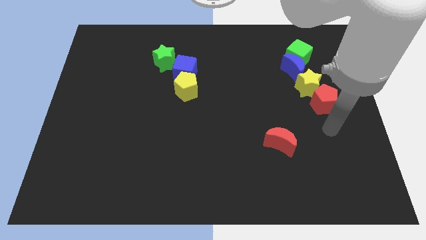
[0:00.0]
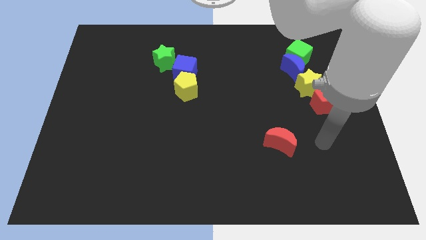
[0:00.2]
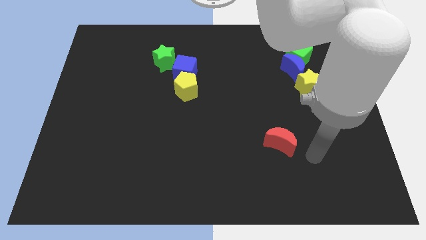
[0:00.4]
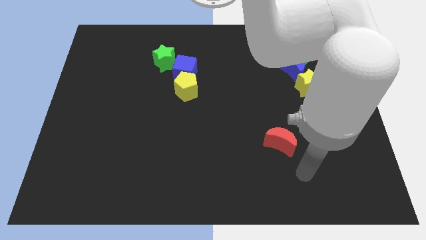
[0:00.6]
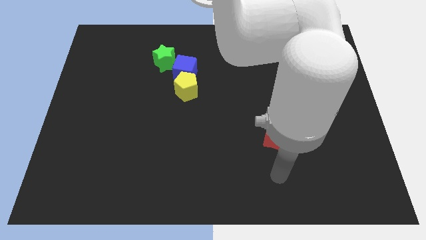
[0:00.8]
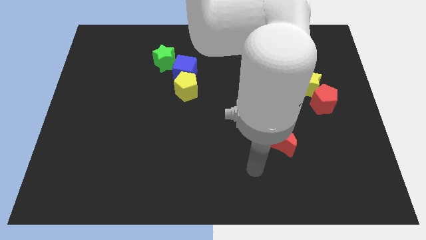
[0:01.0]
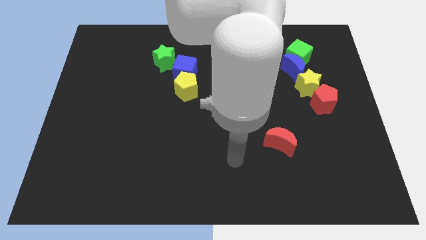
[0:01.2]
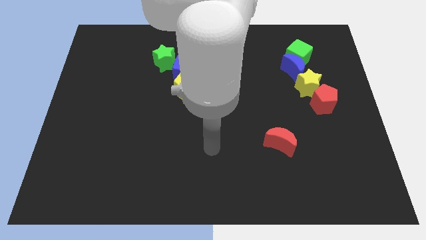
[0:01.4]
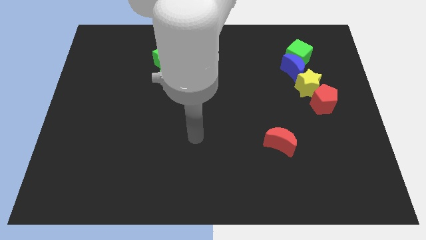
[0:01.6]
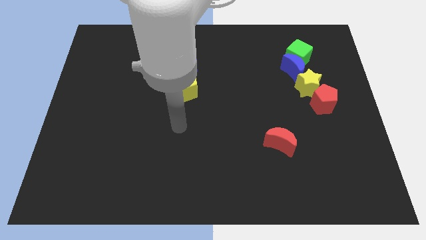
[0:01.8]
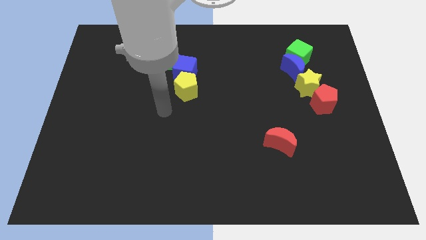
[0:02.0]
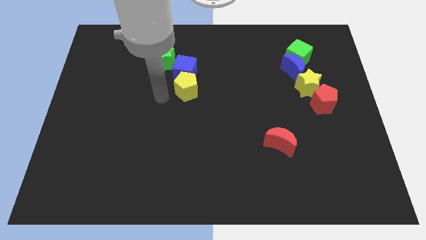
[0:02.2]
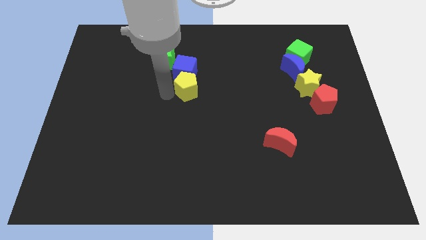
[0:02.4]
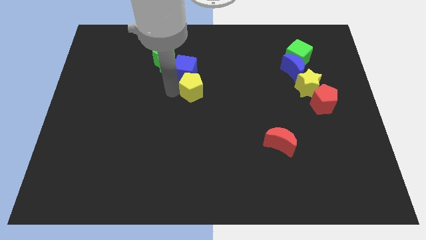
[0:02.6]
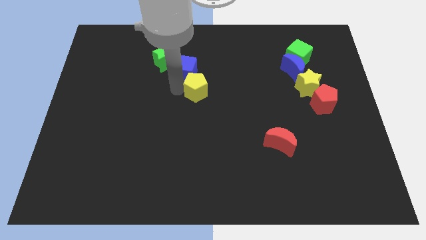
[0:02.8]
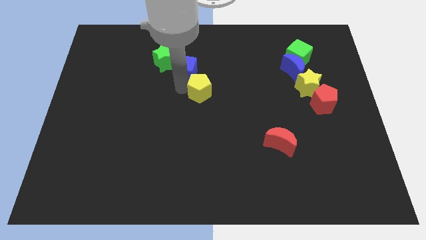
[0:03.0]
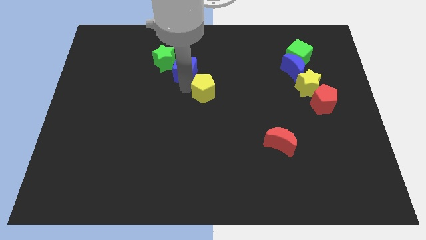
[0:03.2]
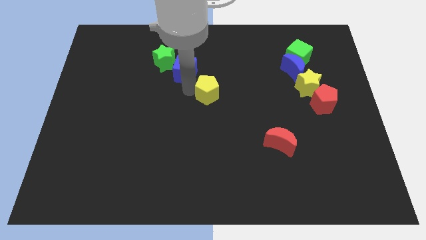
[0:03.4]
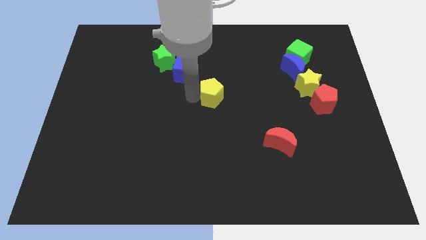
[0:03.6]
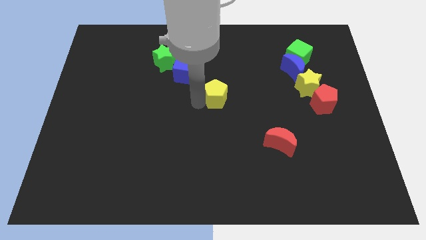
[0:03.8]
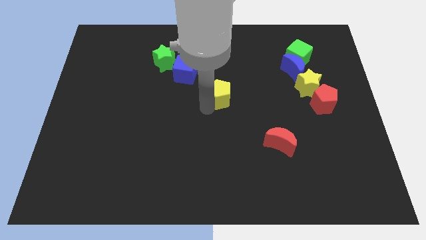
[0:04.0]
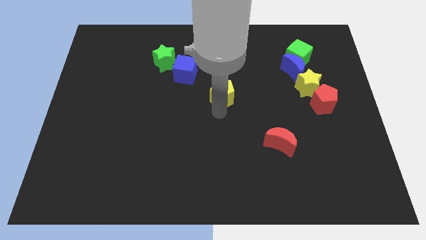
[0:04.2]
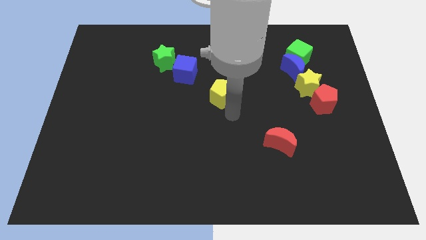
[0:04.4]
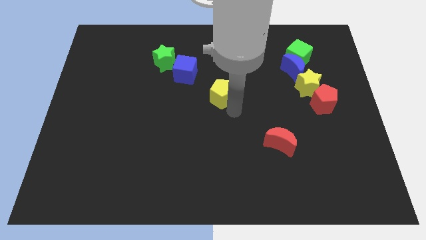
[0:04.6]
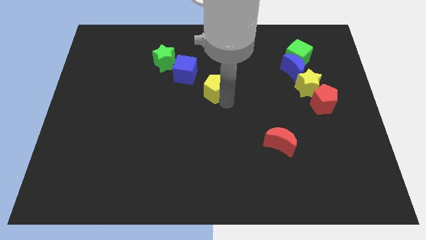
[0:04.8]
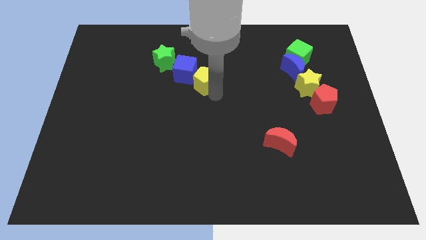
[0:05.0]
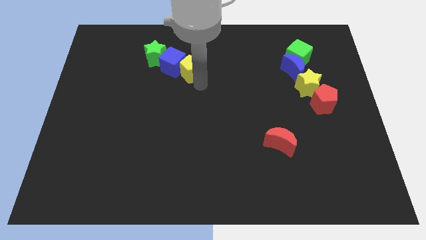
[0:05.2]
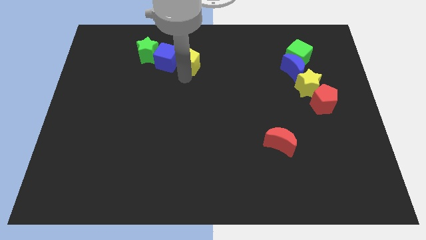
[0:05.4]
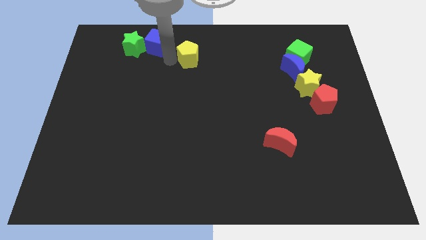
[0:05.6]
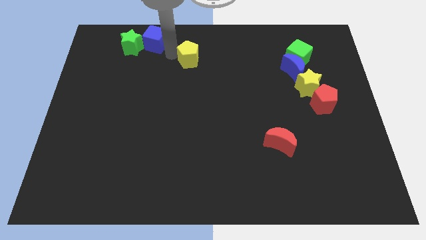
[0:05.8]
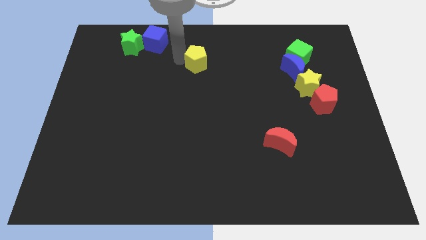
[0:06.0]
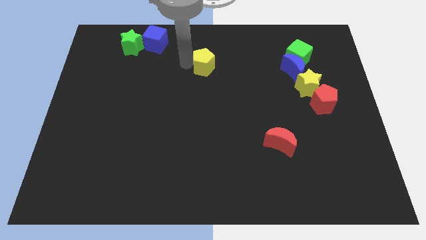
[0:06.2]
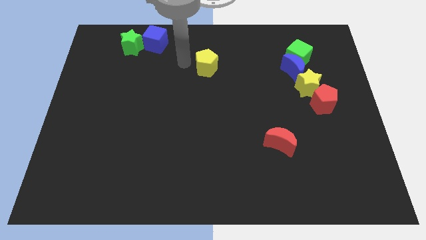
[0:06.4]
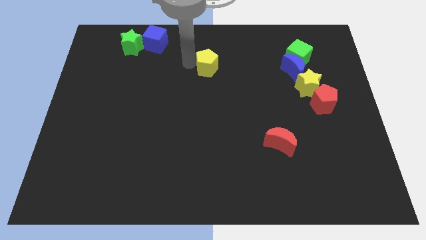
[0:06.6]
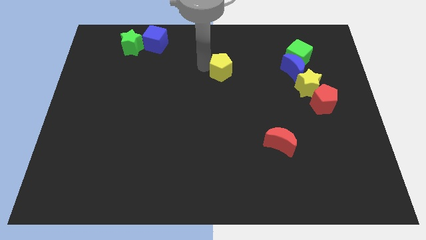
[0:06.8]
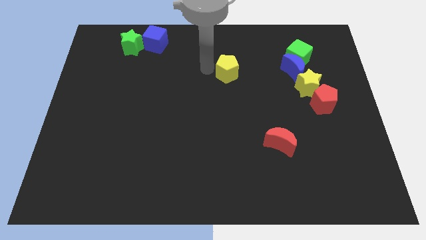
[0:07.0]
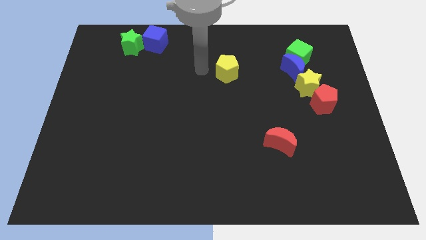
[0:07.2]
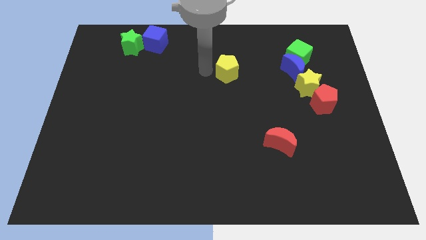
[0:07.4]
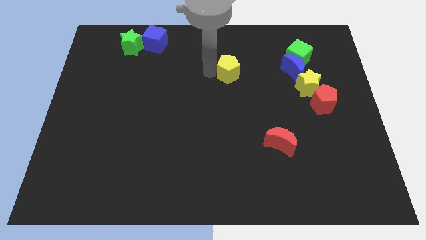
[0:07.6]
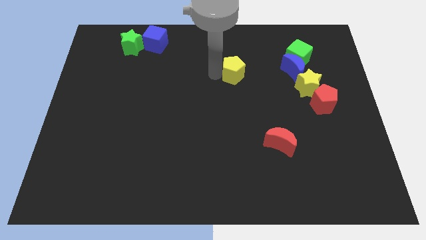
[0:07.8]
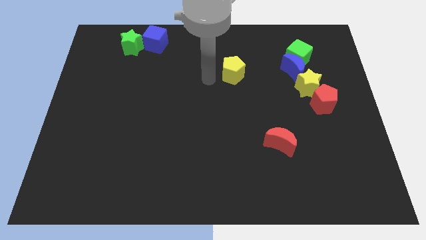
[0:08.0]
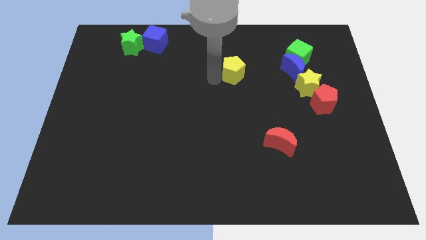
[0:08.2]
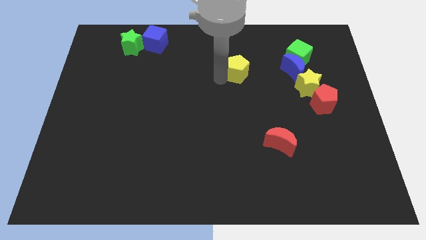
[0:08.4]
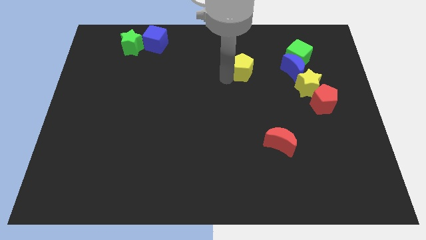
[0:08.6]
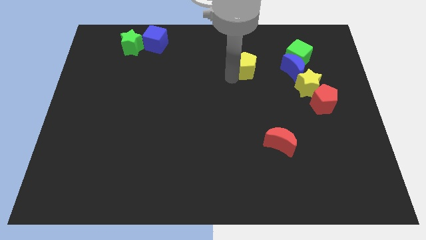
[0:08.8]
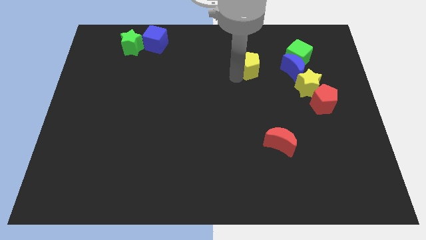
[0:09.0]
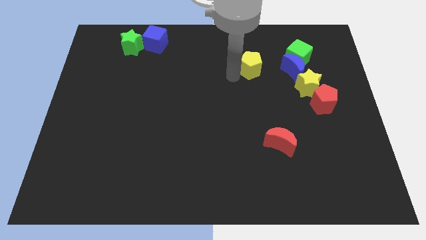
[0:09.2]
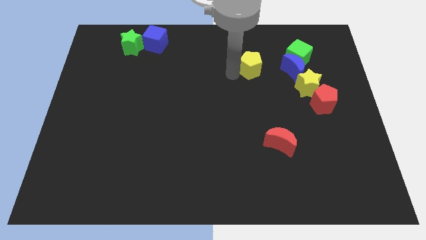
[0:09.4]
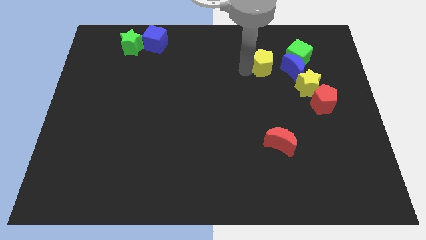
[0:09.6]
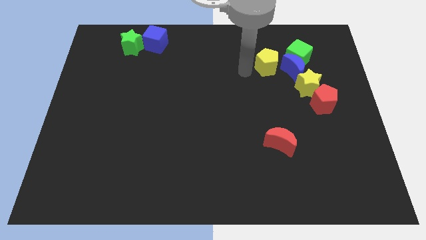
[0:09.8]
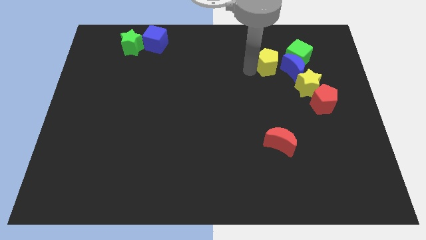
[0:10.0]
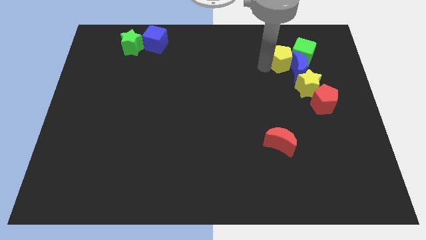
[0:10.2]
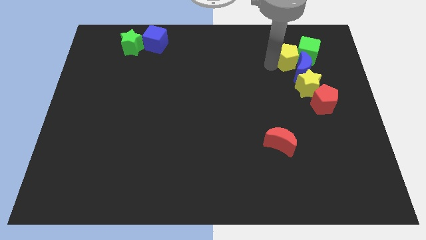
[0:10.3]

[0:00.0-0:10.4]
push the yellow pentagon towards the green cube

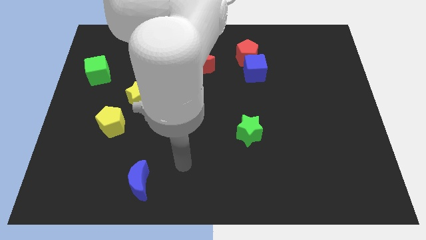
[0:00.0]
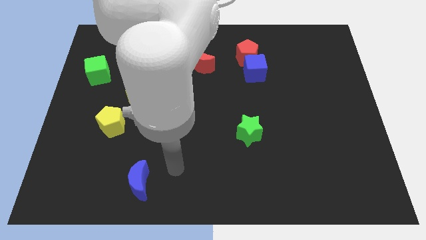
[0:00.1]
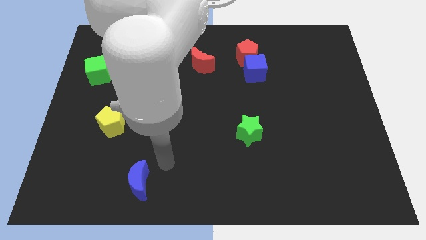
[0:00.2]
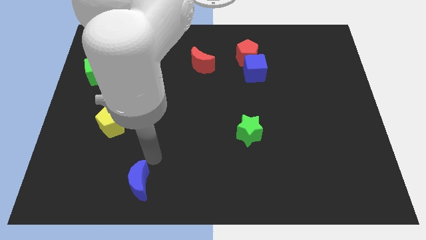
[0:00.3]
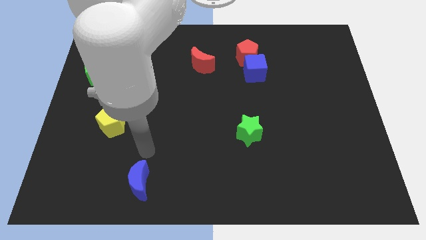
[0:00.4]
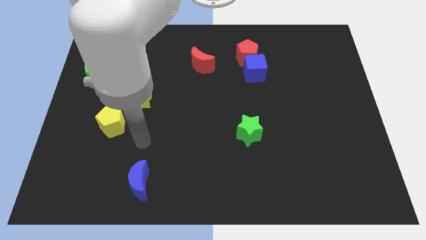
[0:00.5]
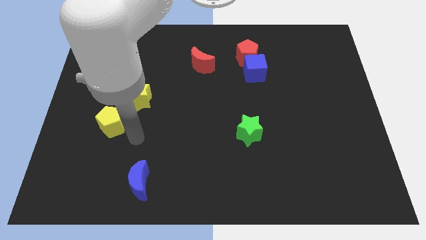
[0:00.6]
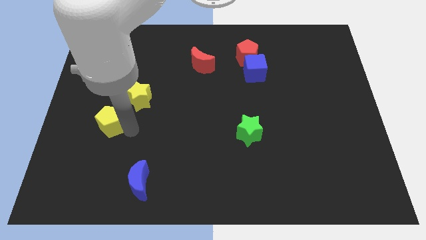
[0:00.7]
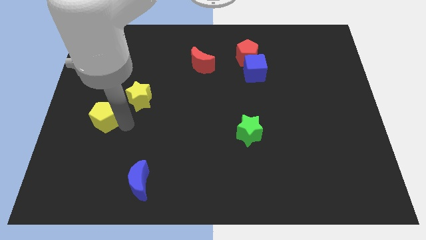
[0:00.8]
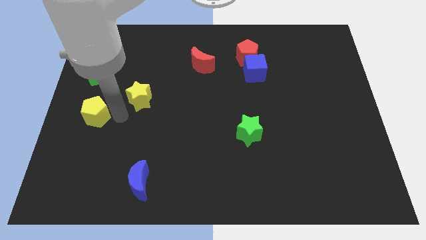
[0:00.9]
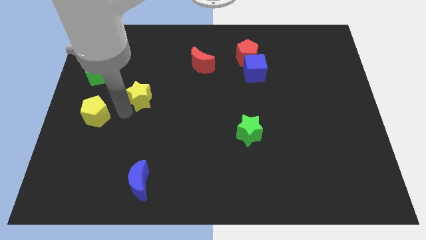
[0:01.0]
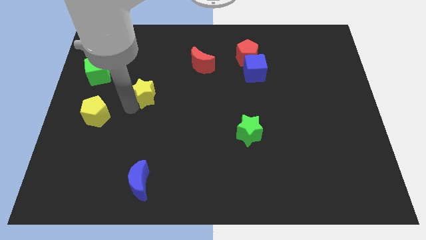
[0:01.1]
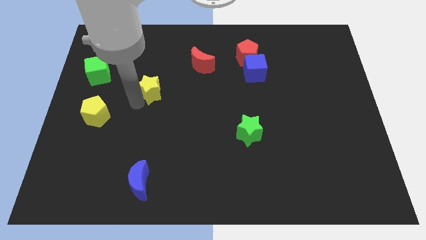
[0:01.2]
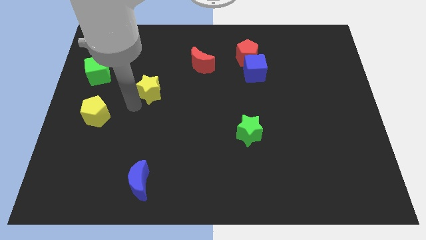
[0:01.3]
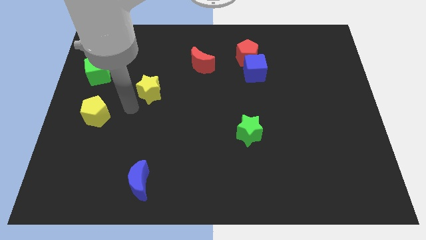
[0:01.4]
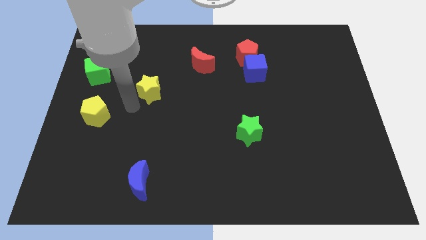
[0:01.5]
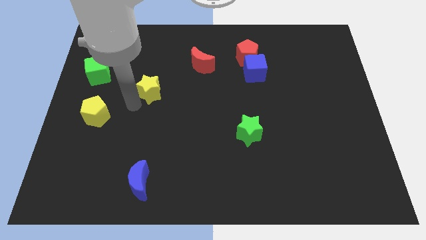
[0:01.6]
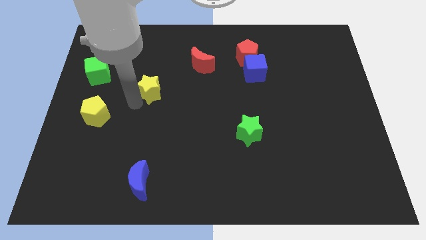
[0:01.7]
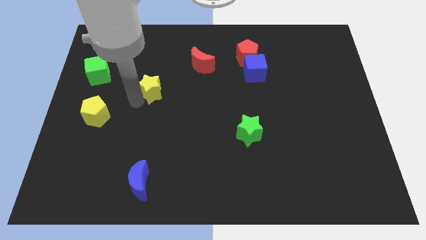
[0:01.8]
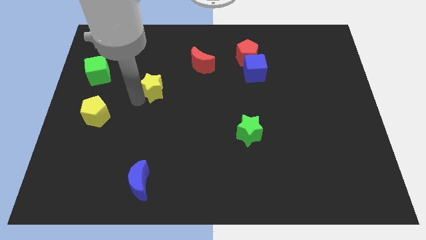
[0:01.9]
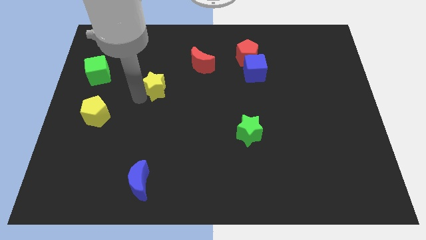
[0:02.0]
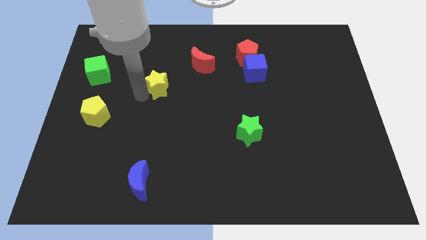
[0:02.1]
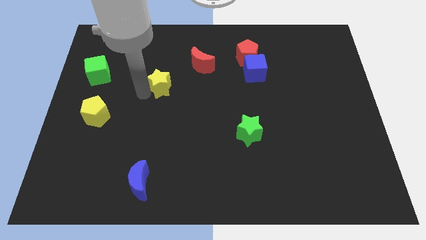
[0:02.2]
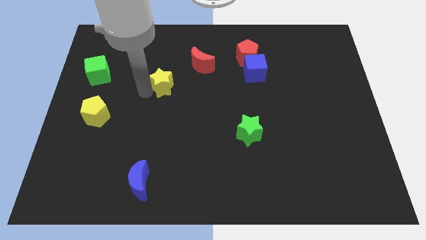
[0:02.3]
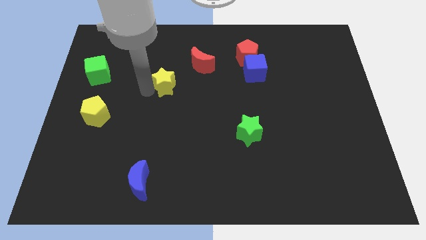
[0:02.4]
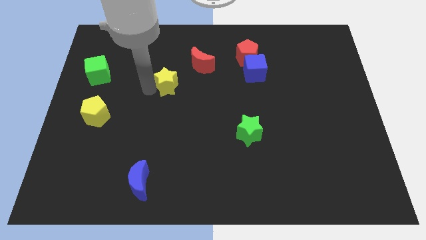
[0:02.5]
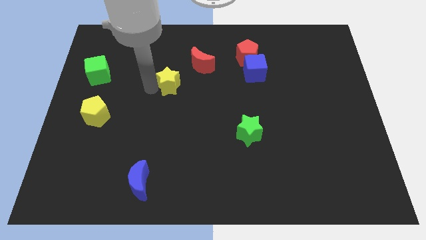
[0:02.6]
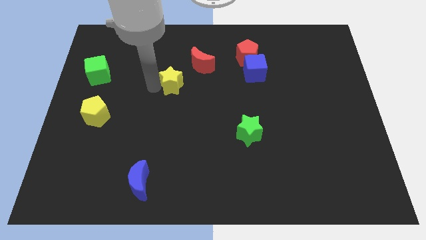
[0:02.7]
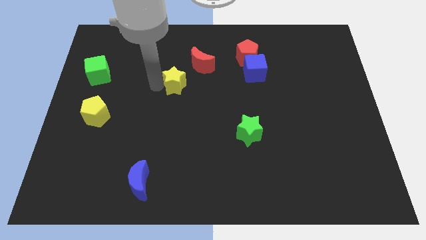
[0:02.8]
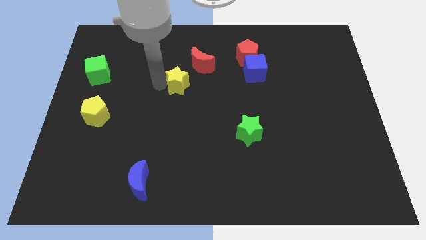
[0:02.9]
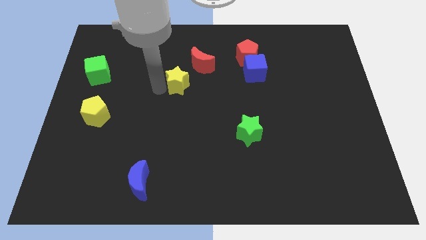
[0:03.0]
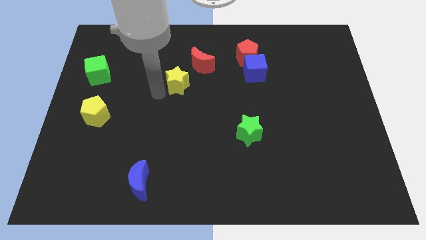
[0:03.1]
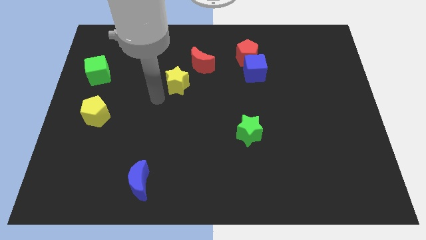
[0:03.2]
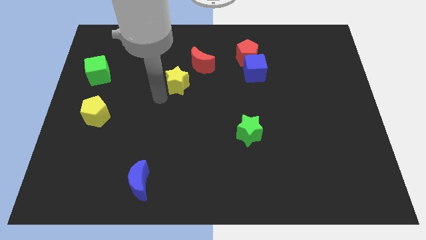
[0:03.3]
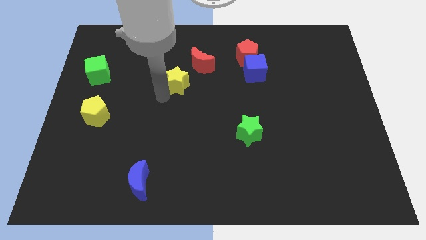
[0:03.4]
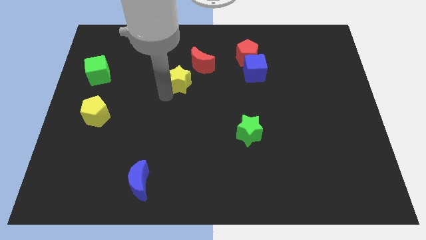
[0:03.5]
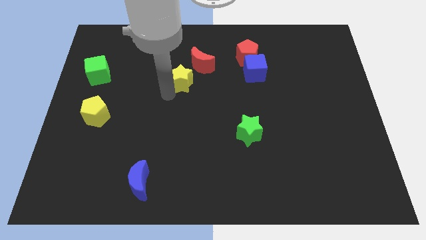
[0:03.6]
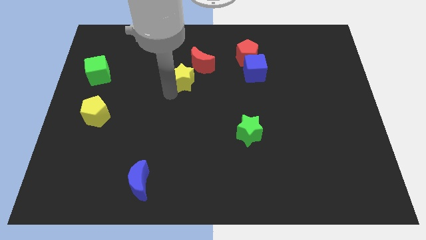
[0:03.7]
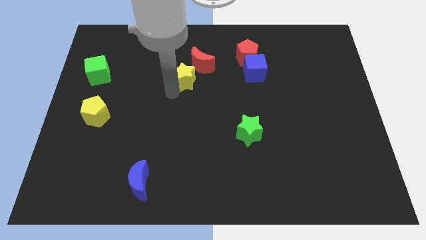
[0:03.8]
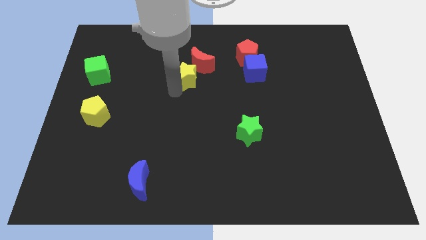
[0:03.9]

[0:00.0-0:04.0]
slide the yellow star close to the red moon
